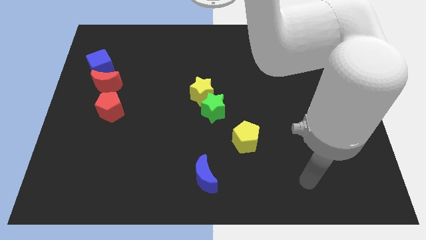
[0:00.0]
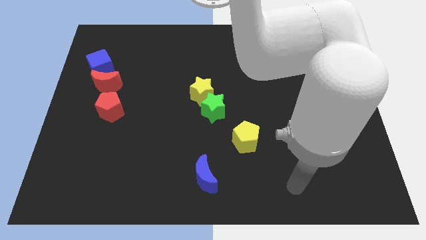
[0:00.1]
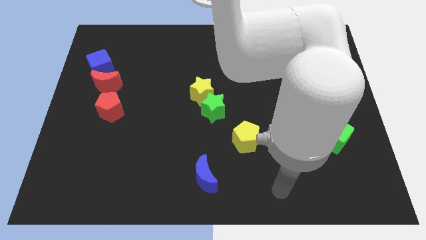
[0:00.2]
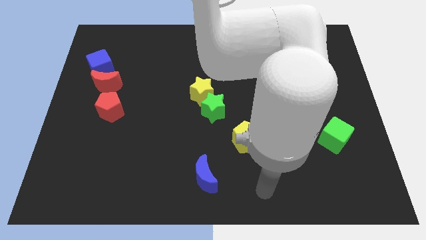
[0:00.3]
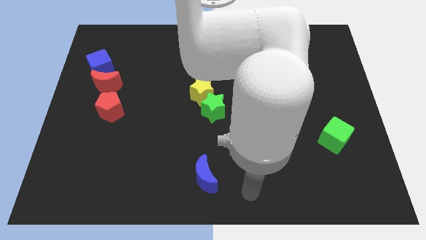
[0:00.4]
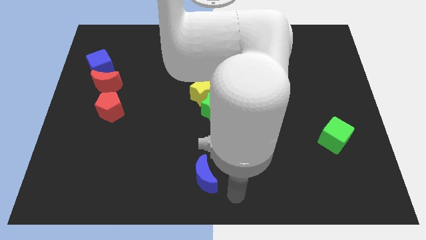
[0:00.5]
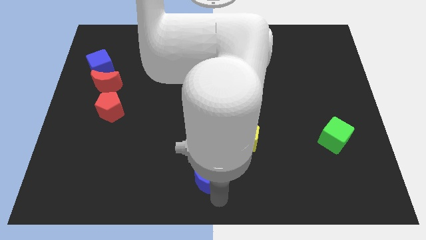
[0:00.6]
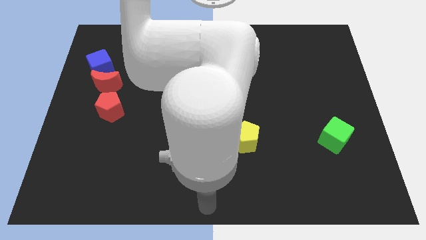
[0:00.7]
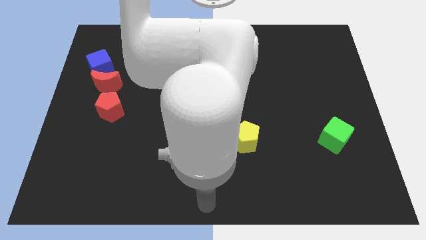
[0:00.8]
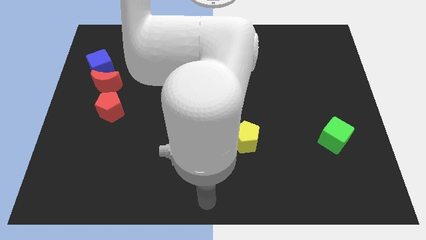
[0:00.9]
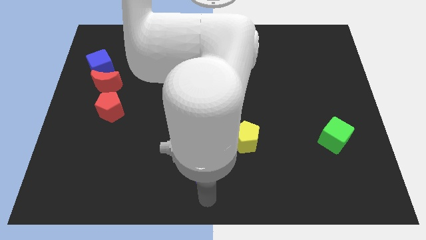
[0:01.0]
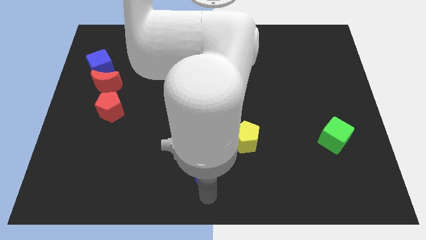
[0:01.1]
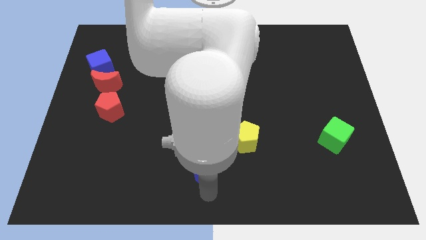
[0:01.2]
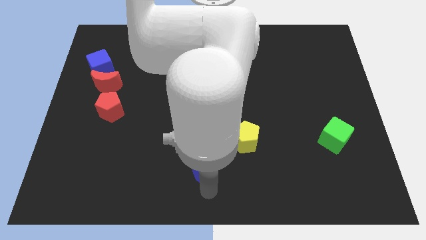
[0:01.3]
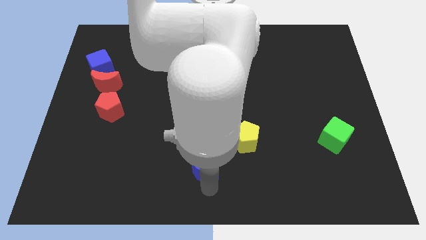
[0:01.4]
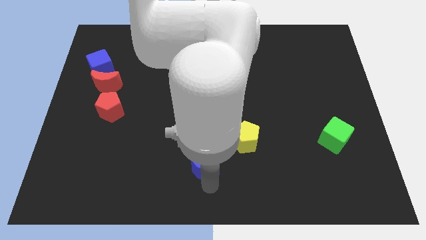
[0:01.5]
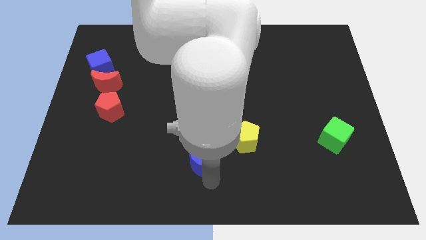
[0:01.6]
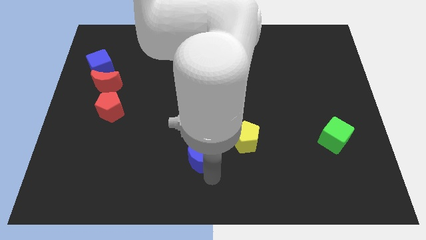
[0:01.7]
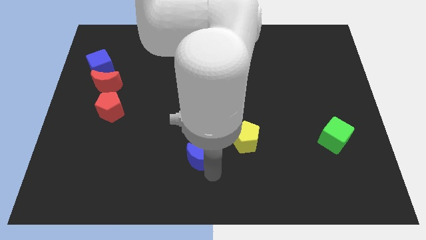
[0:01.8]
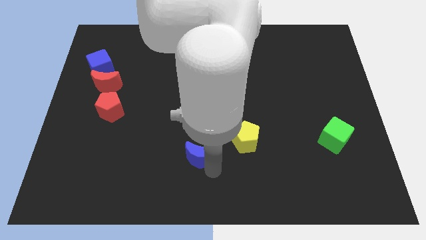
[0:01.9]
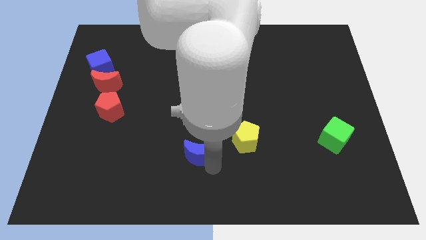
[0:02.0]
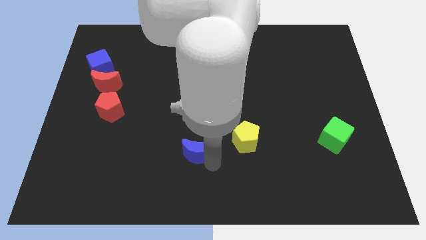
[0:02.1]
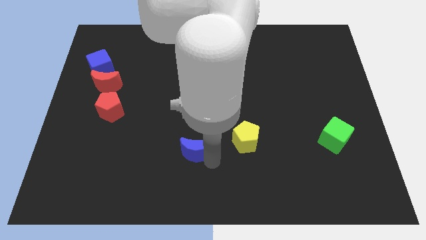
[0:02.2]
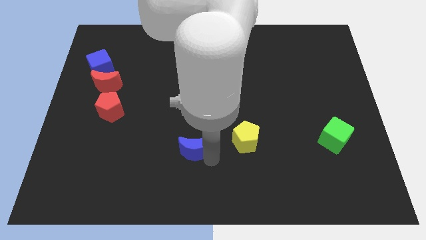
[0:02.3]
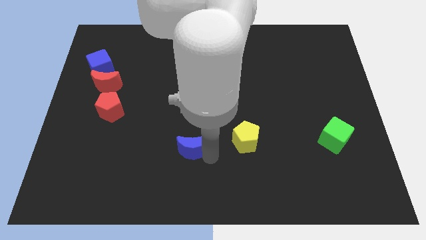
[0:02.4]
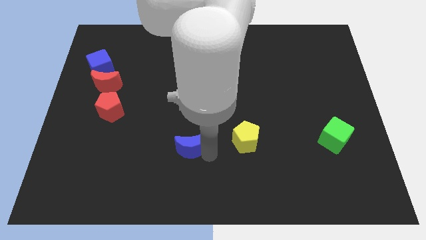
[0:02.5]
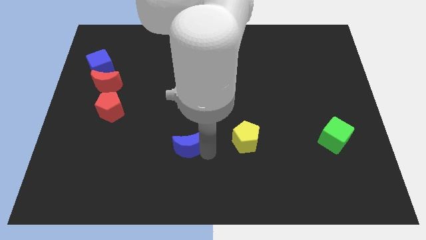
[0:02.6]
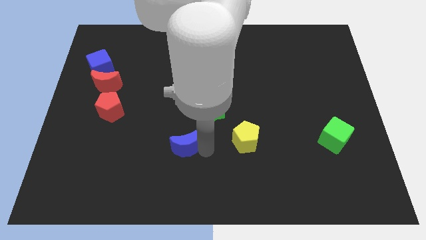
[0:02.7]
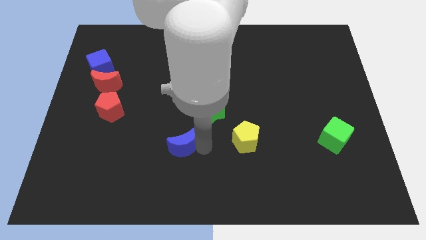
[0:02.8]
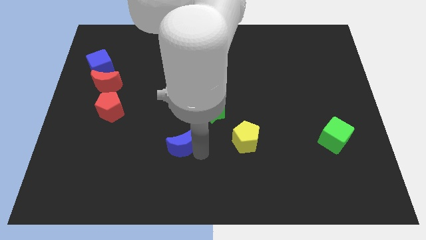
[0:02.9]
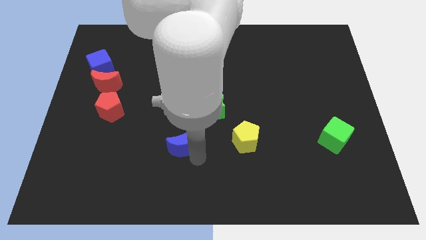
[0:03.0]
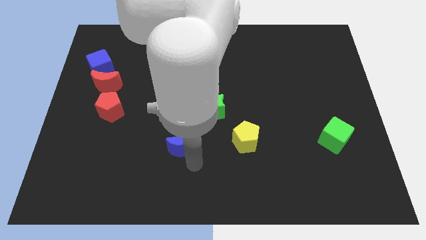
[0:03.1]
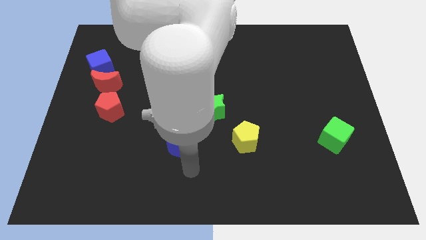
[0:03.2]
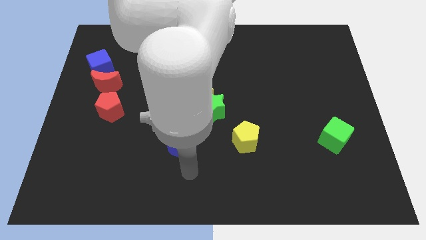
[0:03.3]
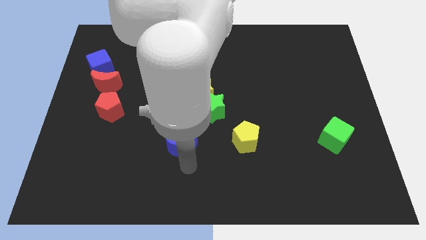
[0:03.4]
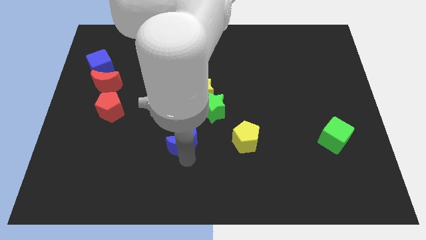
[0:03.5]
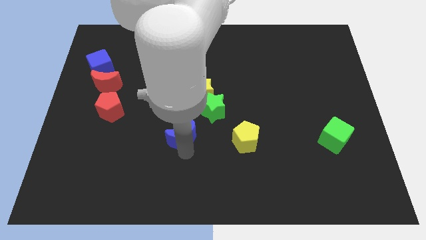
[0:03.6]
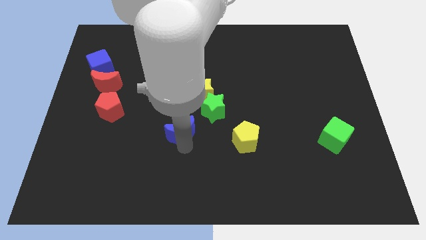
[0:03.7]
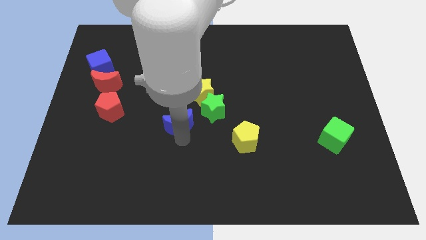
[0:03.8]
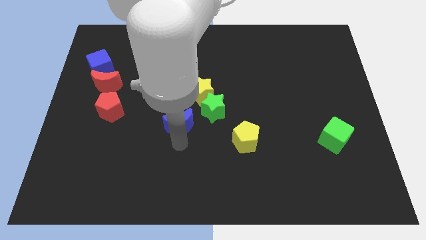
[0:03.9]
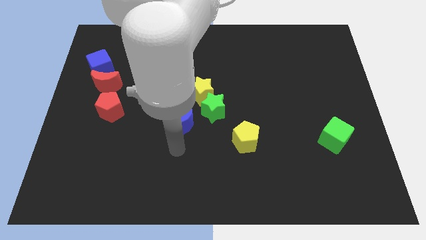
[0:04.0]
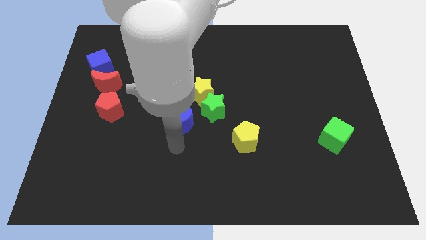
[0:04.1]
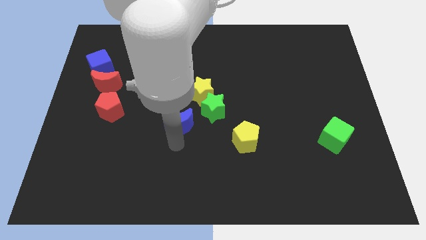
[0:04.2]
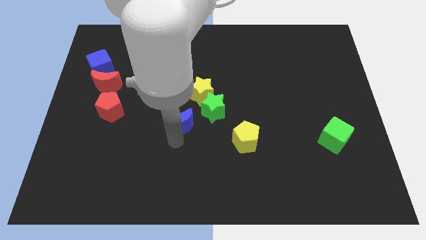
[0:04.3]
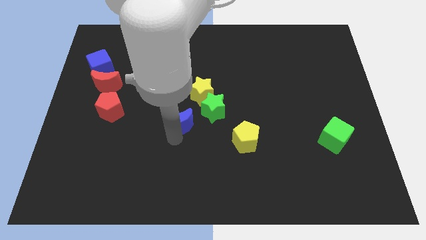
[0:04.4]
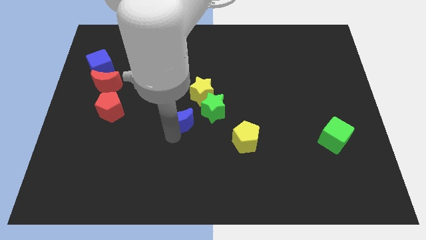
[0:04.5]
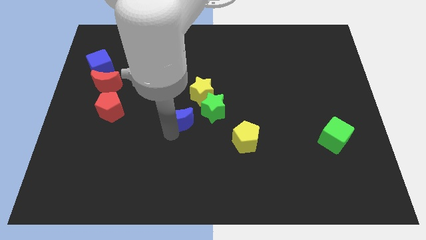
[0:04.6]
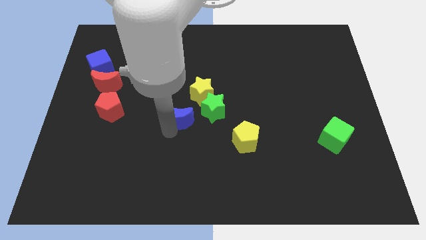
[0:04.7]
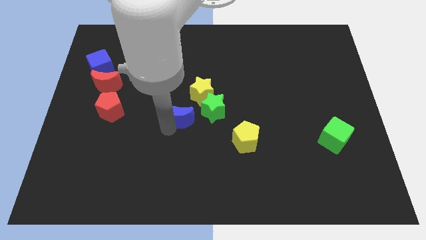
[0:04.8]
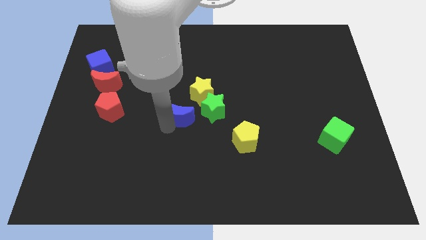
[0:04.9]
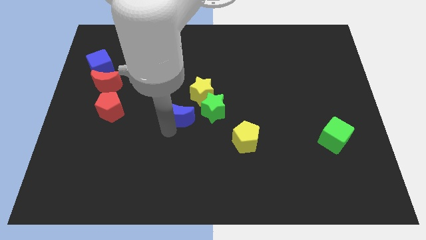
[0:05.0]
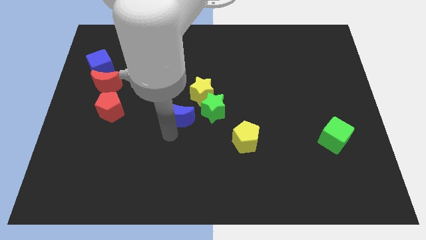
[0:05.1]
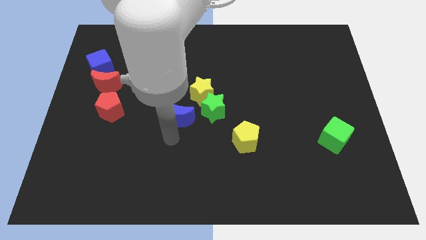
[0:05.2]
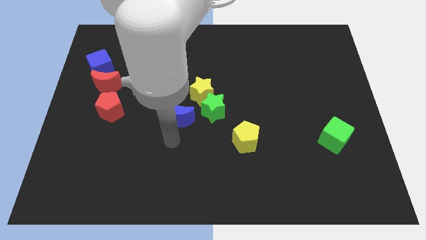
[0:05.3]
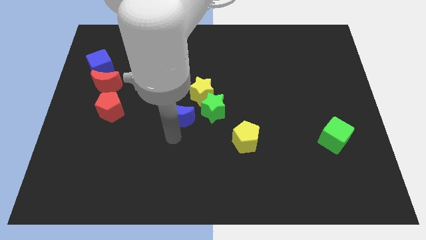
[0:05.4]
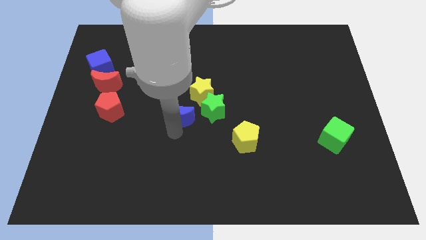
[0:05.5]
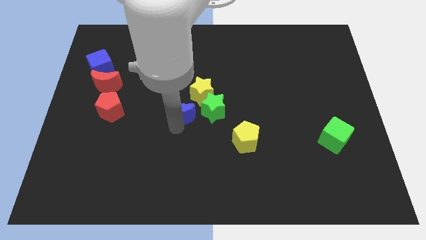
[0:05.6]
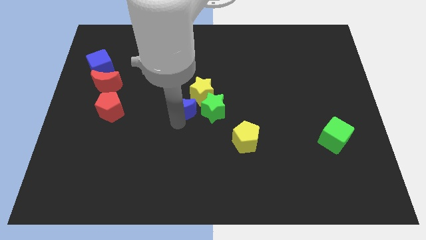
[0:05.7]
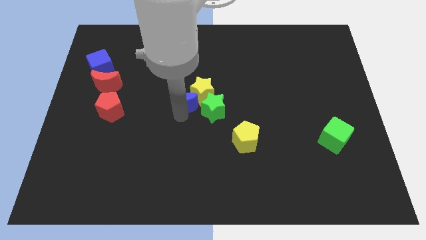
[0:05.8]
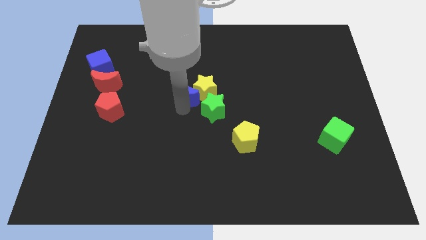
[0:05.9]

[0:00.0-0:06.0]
put the blue moon diagonally up and to the left of the yellow star

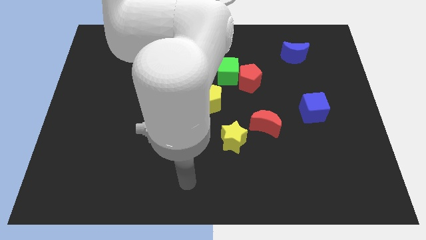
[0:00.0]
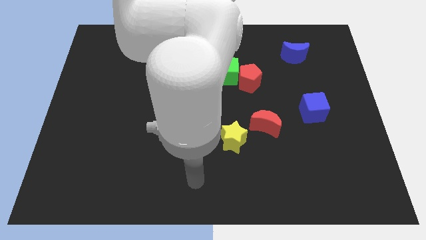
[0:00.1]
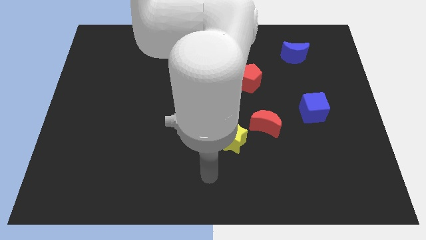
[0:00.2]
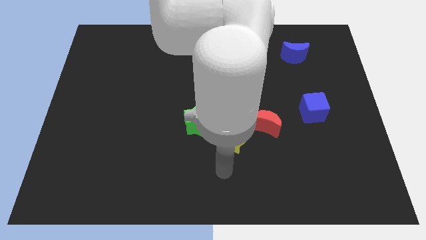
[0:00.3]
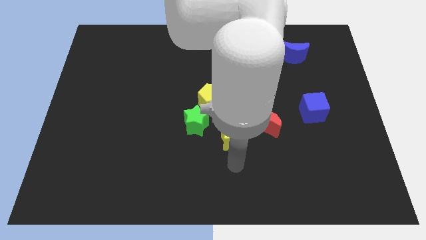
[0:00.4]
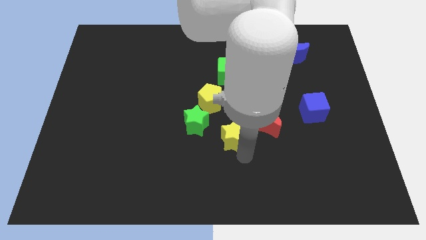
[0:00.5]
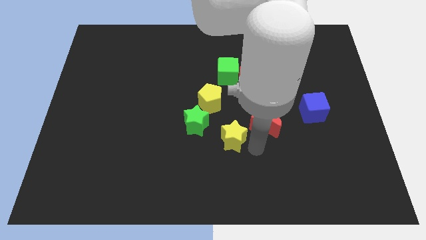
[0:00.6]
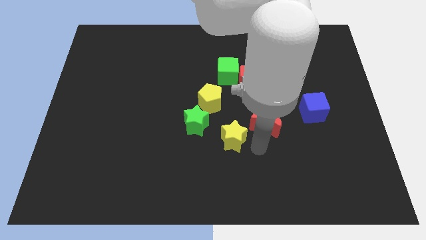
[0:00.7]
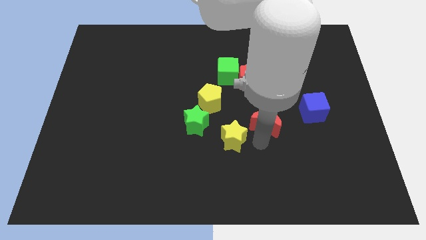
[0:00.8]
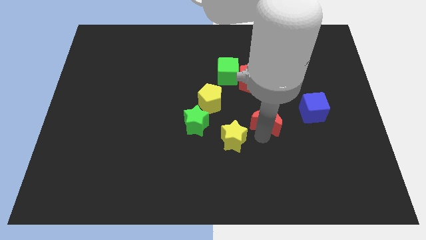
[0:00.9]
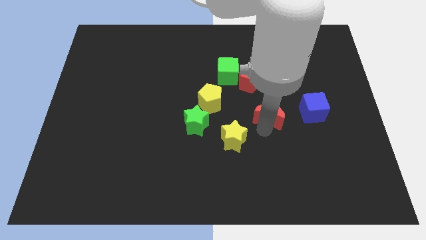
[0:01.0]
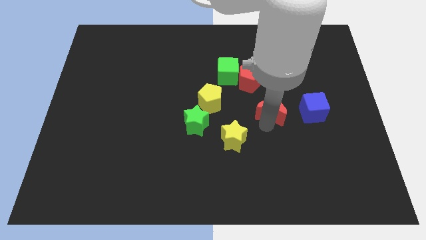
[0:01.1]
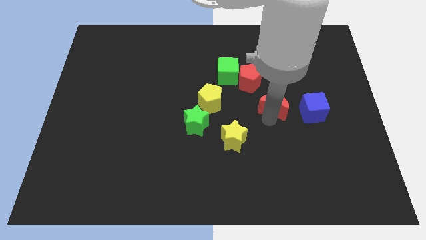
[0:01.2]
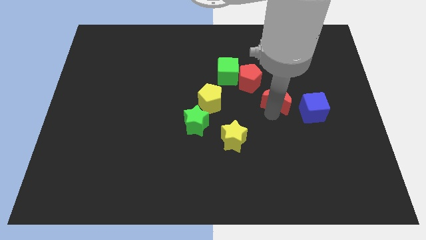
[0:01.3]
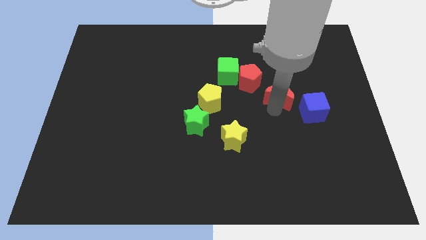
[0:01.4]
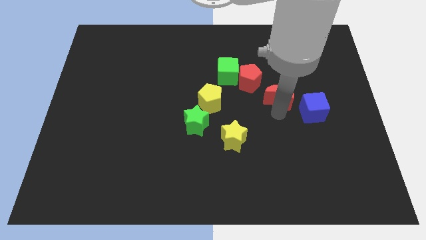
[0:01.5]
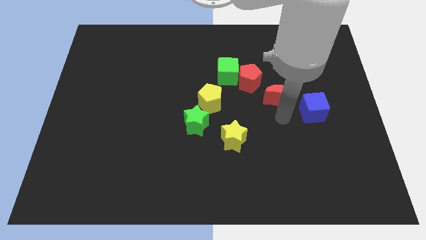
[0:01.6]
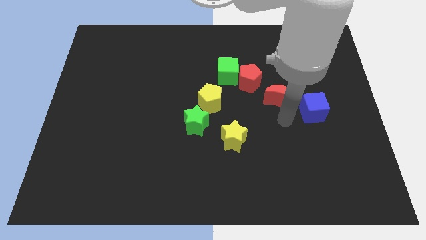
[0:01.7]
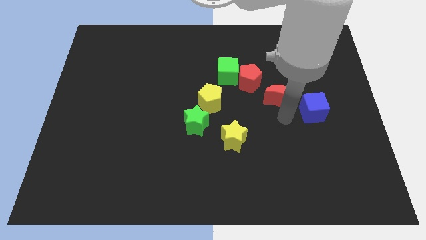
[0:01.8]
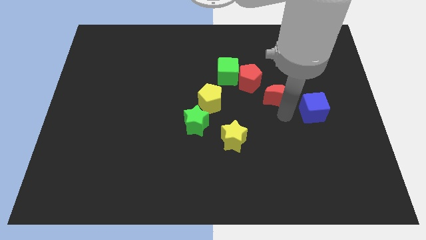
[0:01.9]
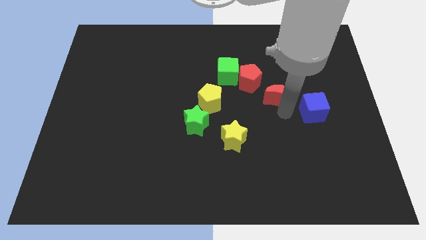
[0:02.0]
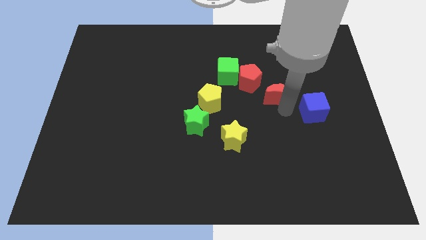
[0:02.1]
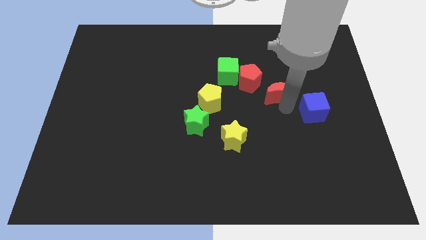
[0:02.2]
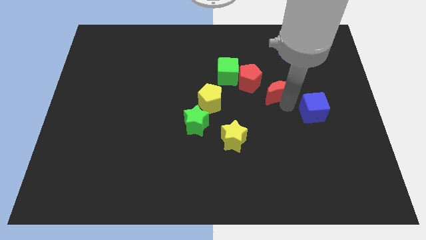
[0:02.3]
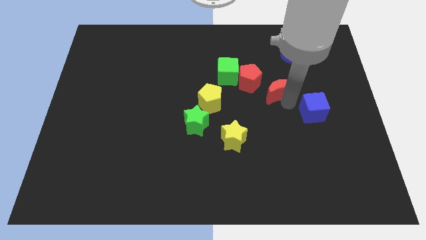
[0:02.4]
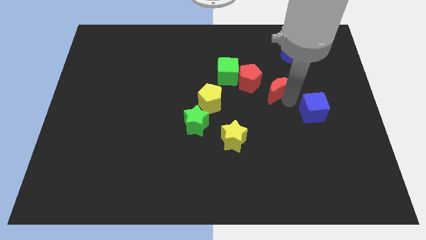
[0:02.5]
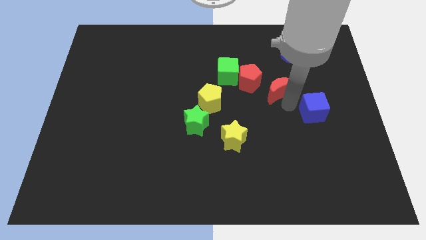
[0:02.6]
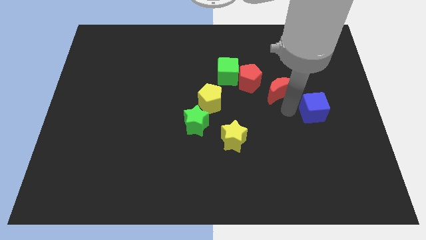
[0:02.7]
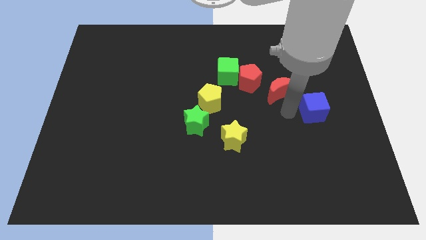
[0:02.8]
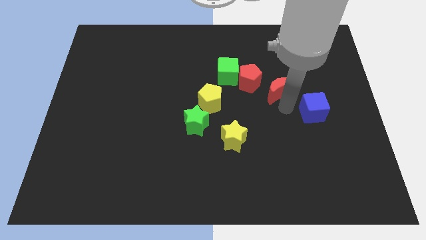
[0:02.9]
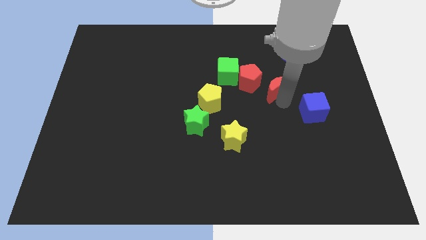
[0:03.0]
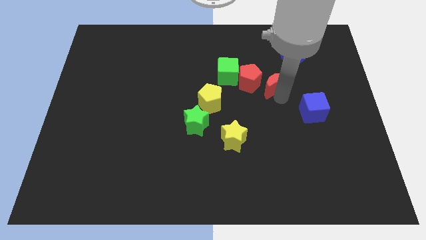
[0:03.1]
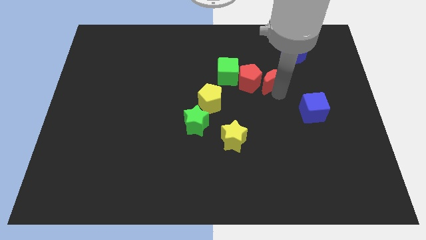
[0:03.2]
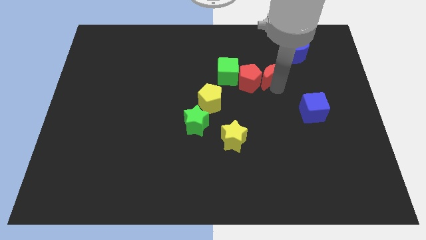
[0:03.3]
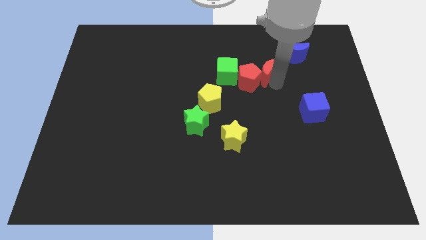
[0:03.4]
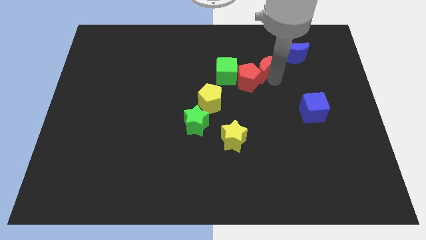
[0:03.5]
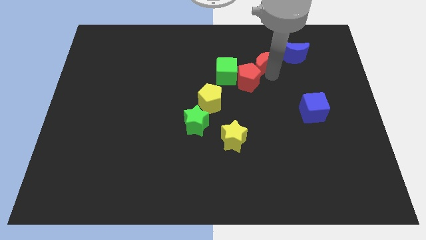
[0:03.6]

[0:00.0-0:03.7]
push the red moon to the top right of the green cube
